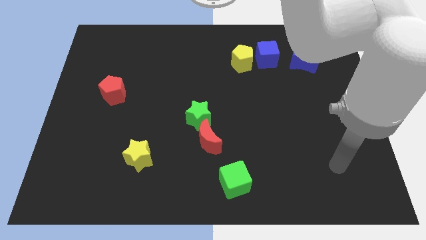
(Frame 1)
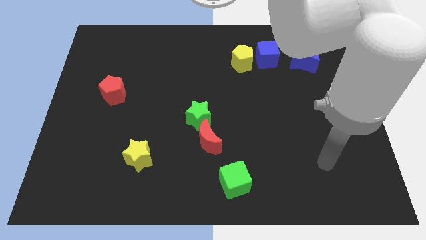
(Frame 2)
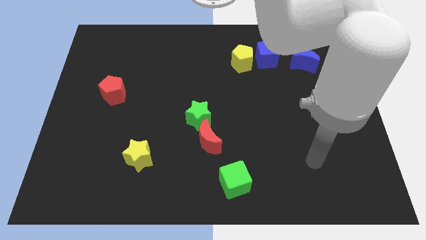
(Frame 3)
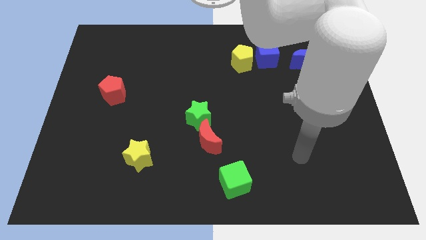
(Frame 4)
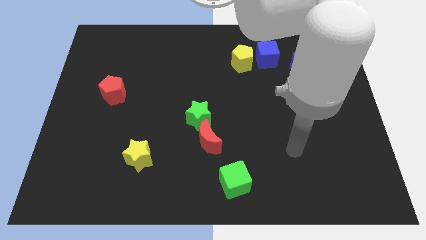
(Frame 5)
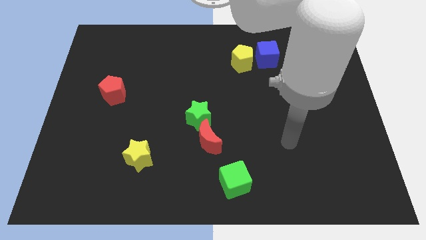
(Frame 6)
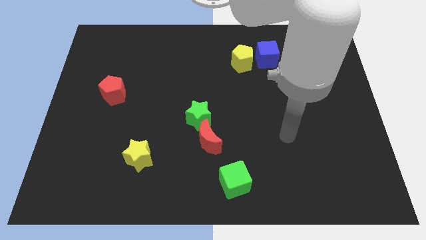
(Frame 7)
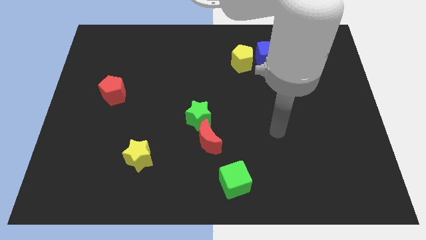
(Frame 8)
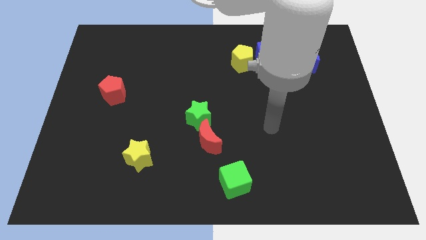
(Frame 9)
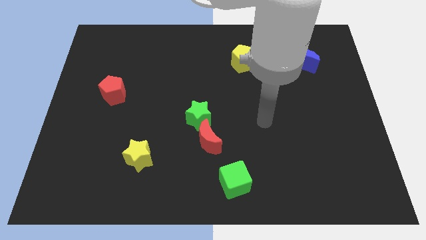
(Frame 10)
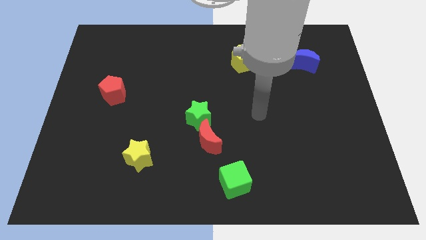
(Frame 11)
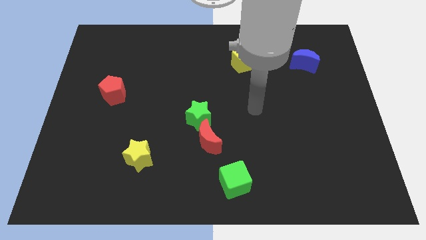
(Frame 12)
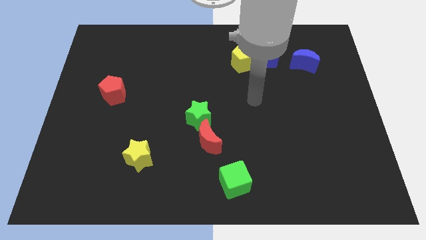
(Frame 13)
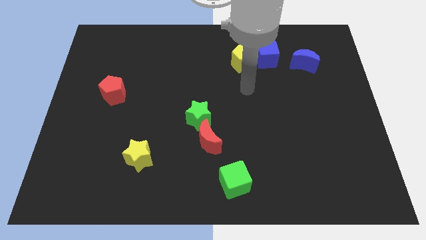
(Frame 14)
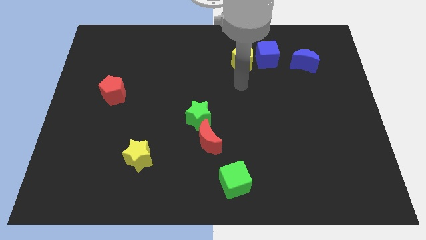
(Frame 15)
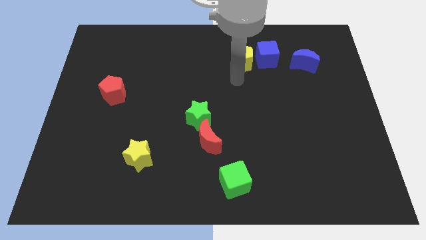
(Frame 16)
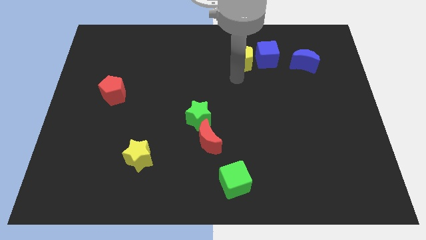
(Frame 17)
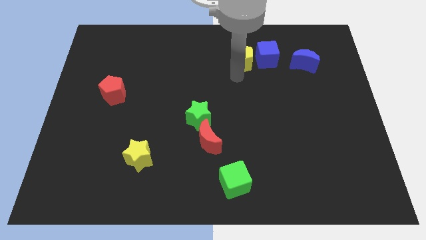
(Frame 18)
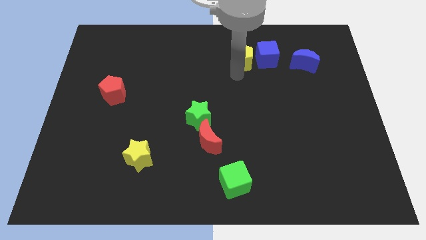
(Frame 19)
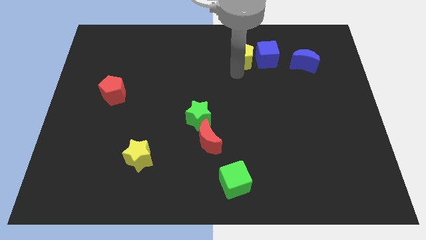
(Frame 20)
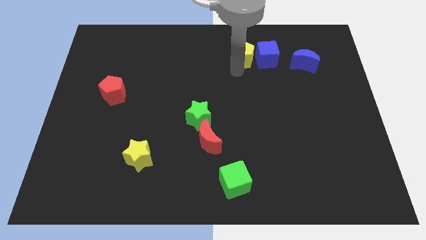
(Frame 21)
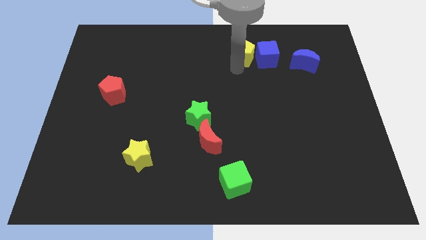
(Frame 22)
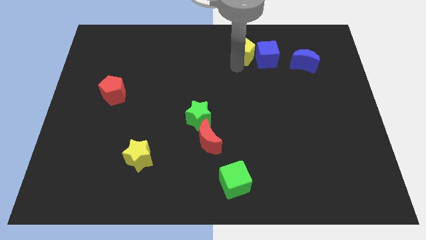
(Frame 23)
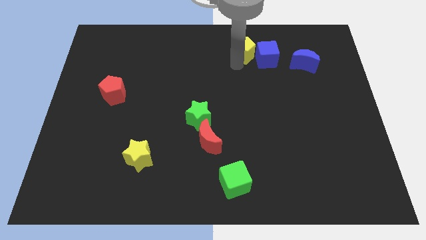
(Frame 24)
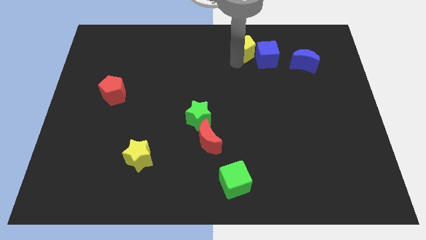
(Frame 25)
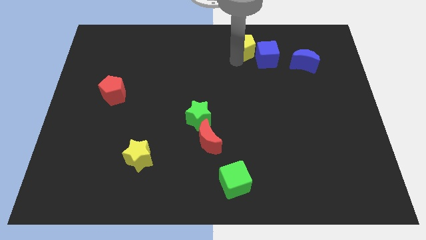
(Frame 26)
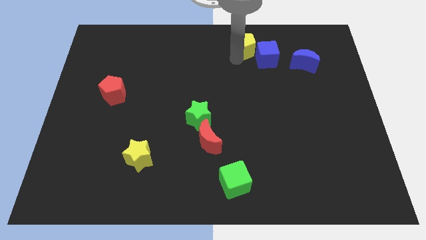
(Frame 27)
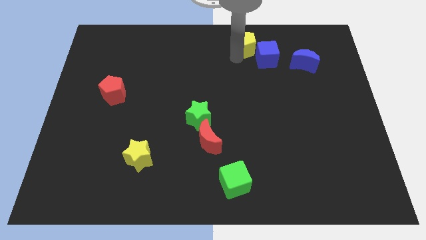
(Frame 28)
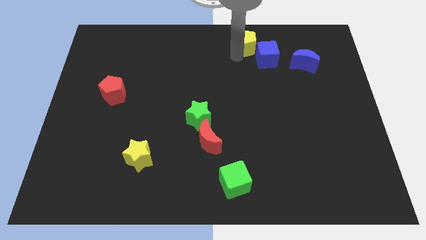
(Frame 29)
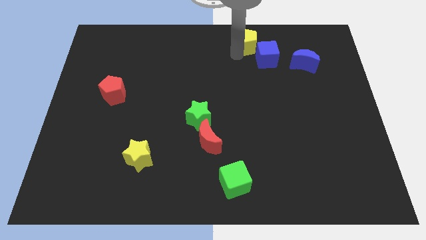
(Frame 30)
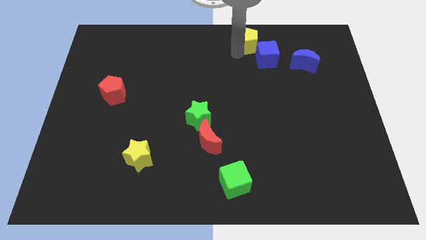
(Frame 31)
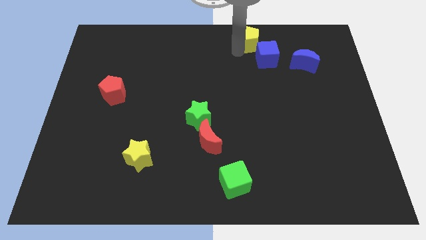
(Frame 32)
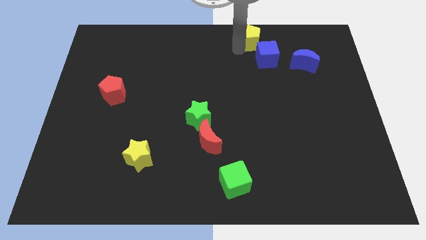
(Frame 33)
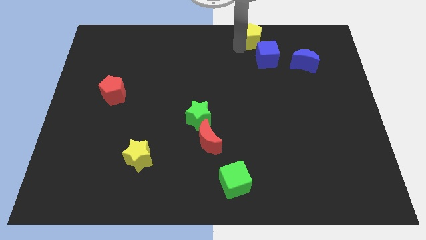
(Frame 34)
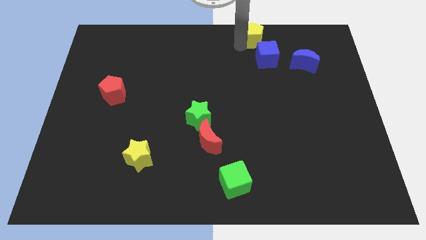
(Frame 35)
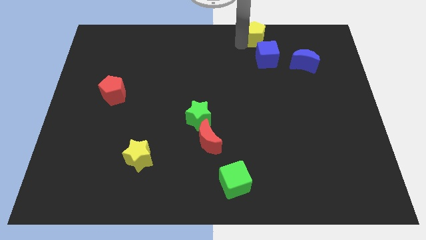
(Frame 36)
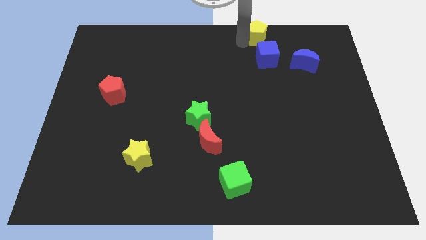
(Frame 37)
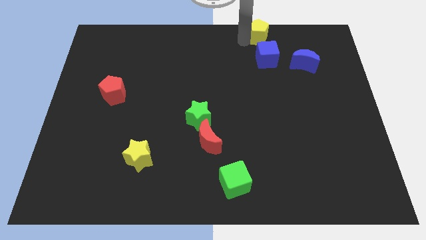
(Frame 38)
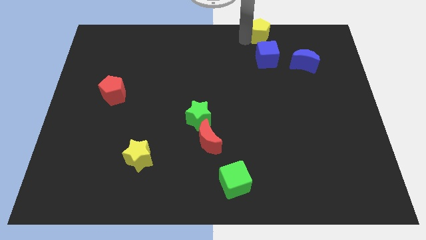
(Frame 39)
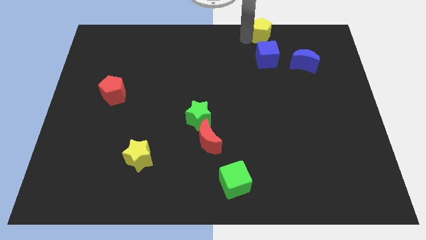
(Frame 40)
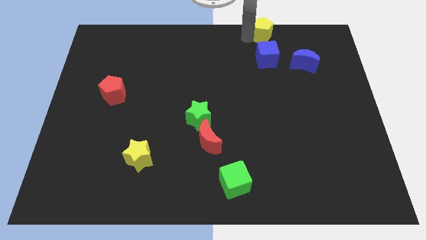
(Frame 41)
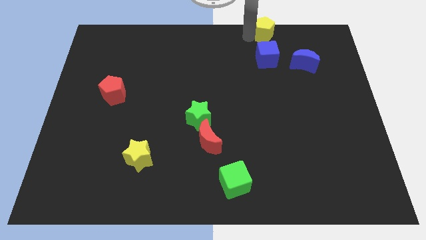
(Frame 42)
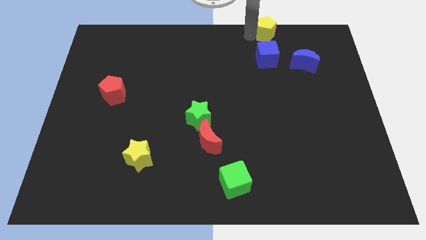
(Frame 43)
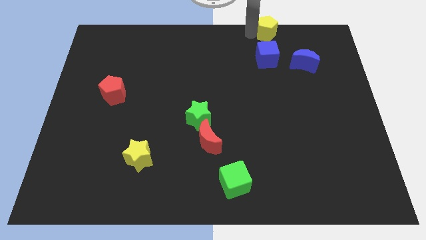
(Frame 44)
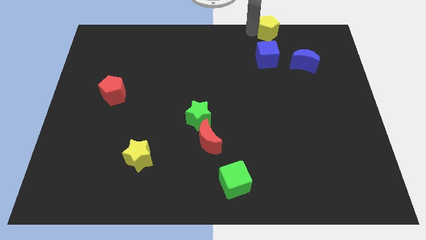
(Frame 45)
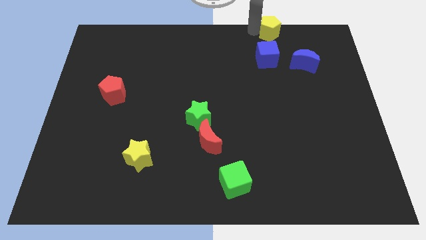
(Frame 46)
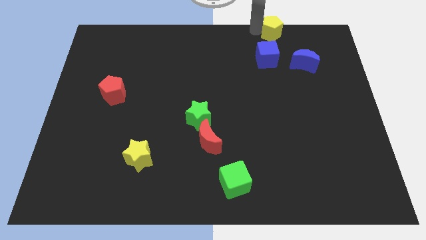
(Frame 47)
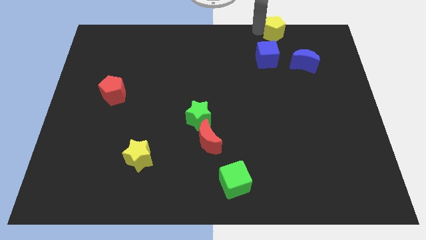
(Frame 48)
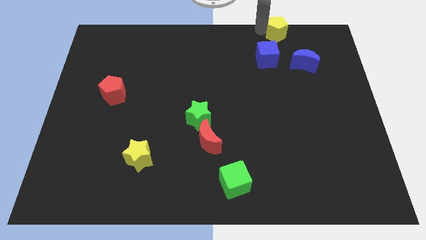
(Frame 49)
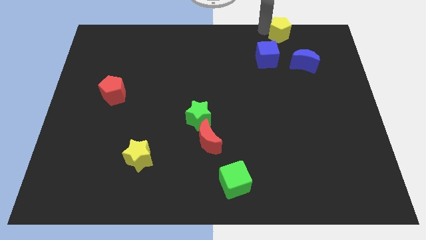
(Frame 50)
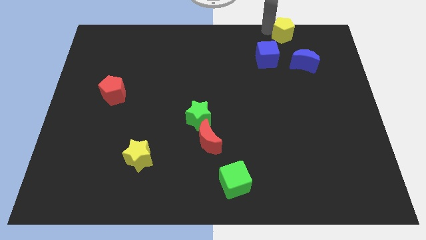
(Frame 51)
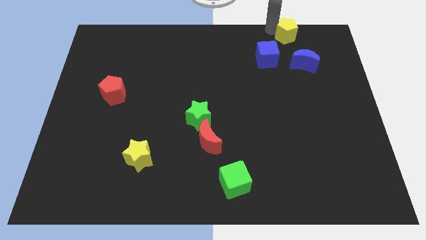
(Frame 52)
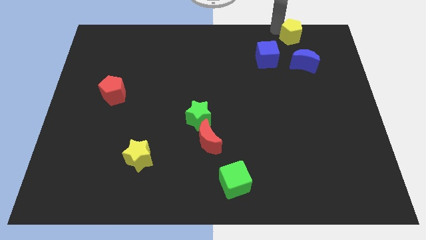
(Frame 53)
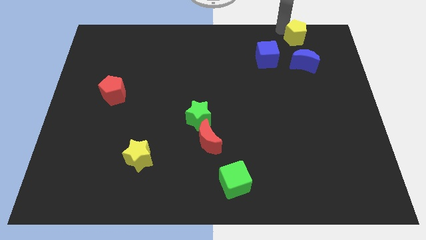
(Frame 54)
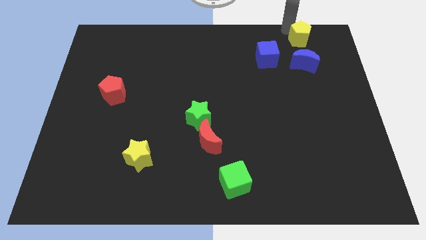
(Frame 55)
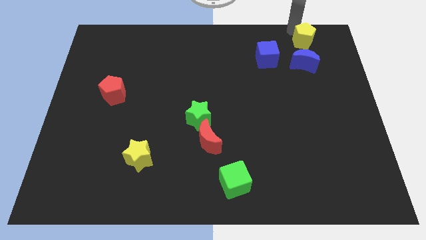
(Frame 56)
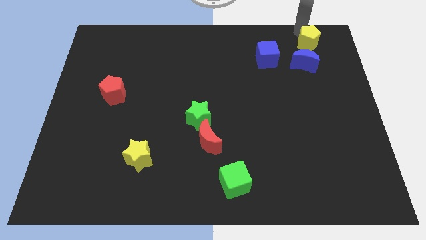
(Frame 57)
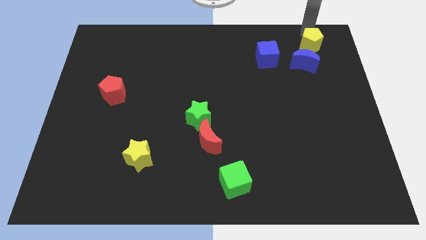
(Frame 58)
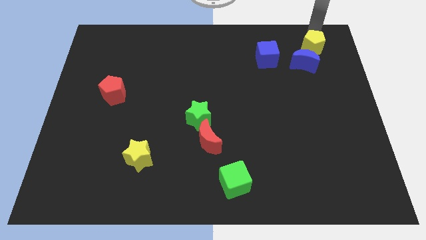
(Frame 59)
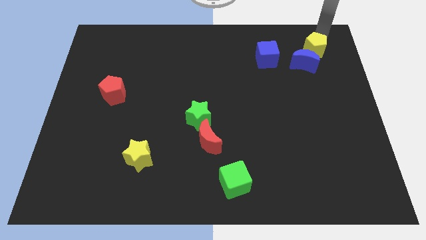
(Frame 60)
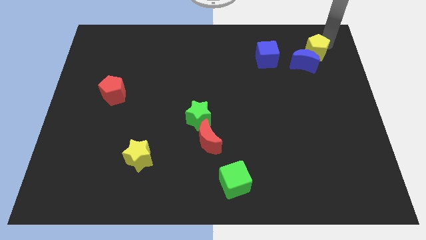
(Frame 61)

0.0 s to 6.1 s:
push the yellow pentagon towards the blue moon
